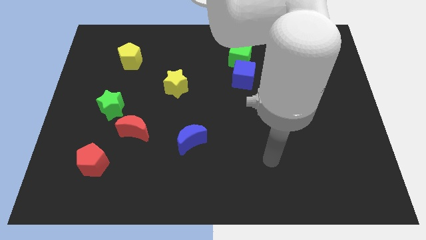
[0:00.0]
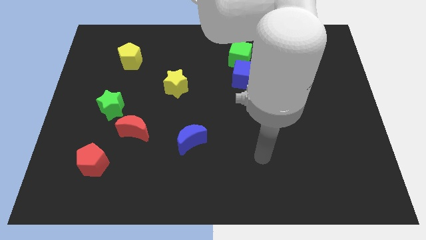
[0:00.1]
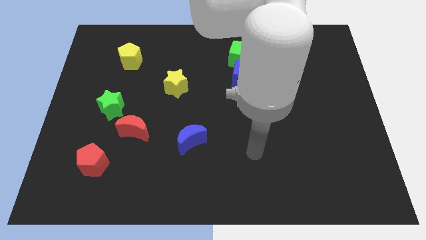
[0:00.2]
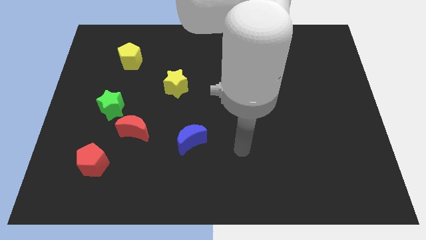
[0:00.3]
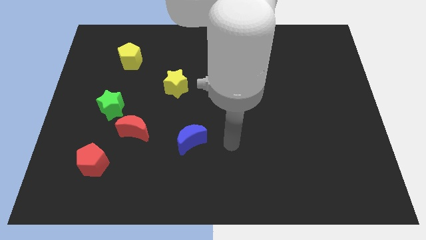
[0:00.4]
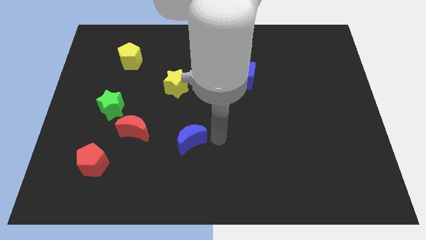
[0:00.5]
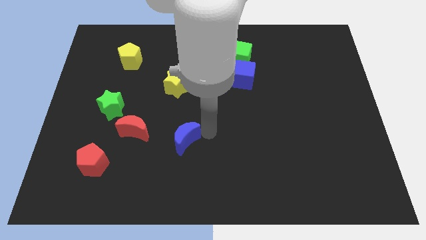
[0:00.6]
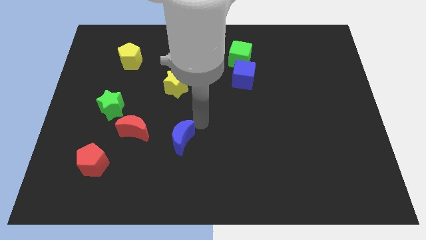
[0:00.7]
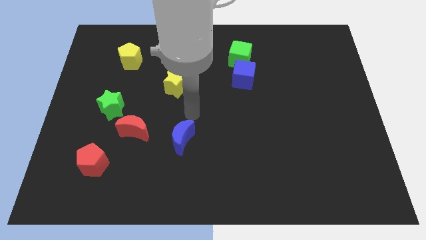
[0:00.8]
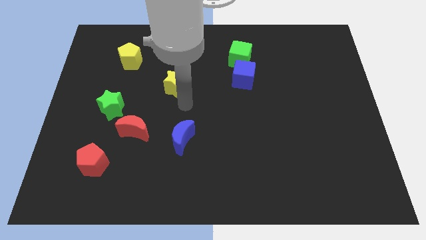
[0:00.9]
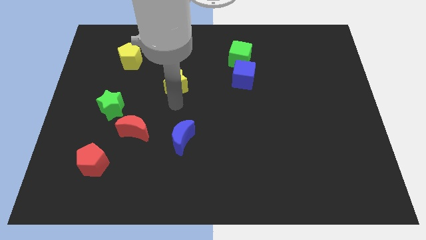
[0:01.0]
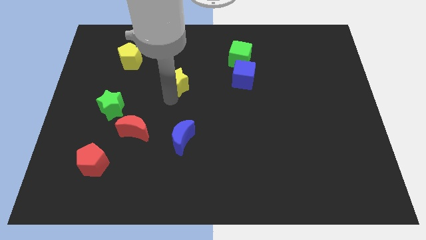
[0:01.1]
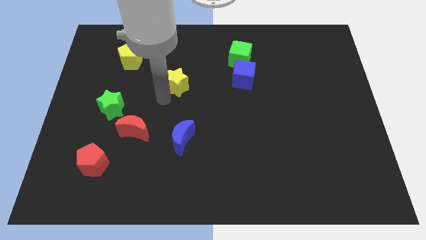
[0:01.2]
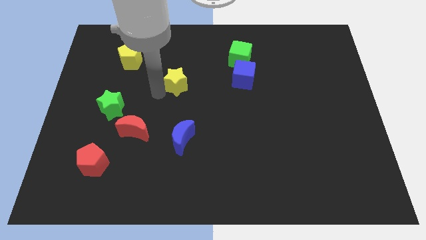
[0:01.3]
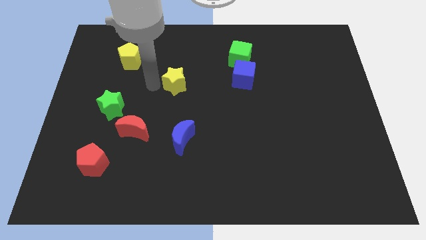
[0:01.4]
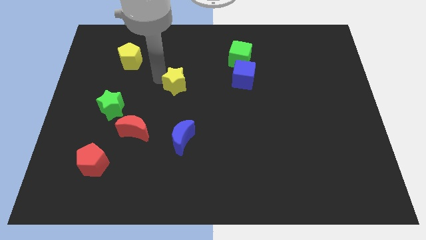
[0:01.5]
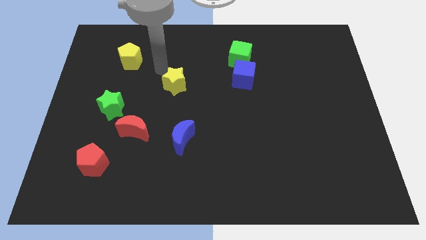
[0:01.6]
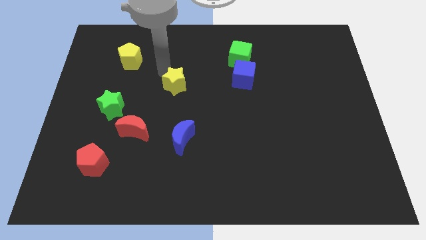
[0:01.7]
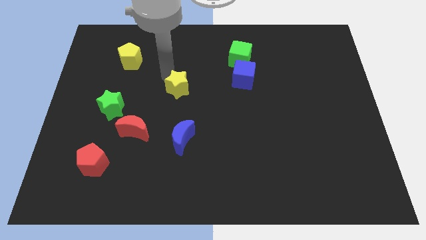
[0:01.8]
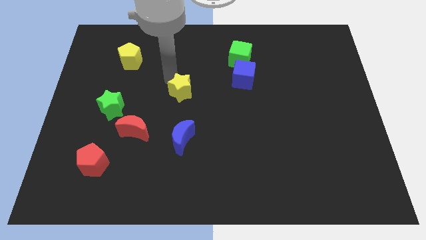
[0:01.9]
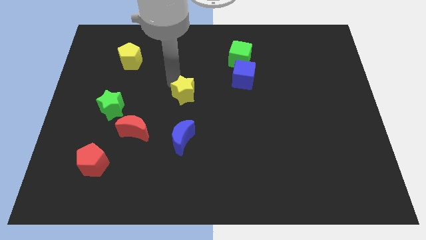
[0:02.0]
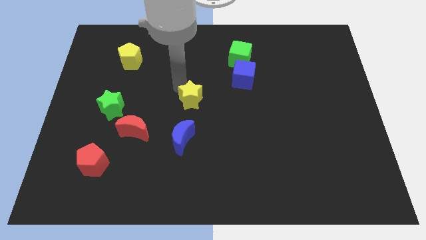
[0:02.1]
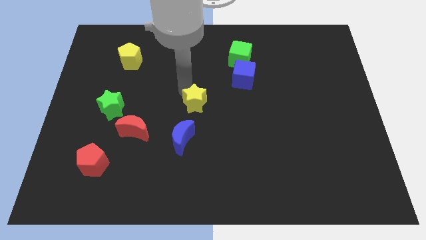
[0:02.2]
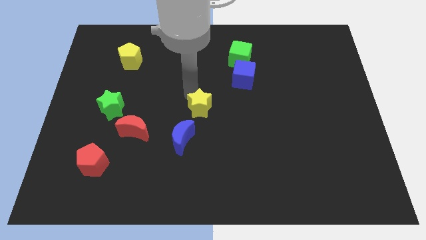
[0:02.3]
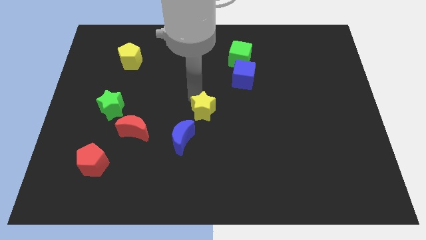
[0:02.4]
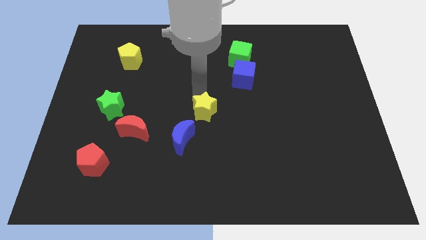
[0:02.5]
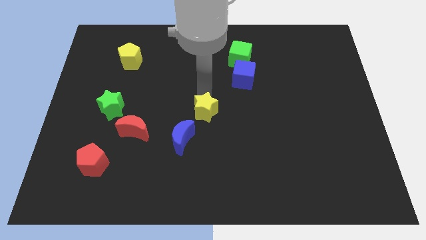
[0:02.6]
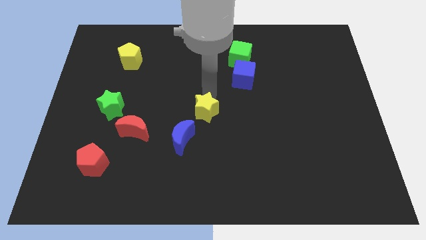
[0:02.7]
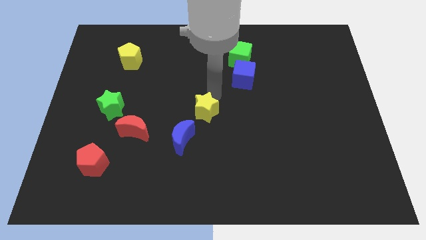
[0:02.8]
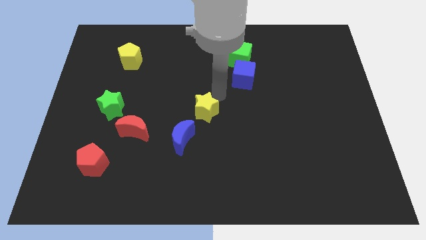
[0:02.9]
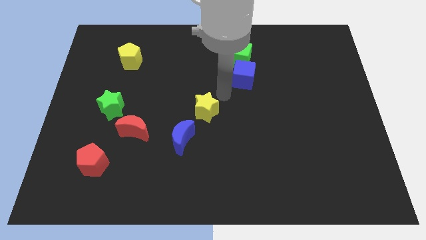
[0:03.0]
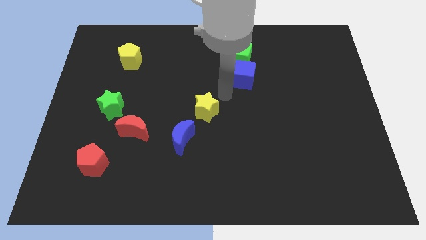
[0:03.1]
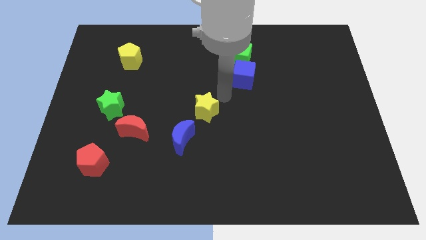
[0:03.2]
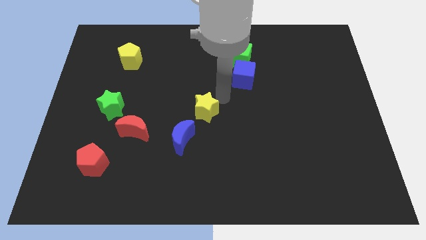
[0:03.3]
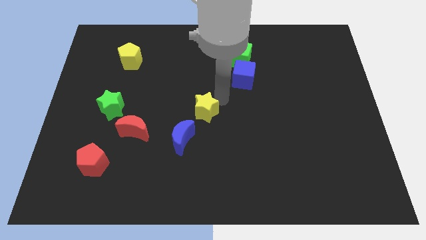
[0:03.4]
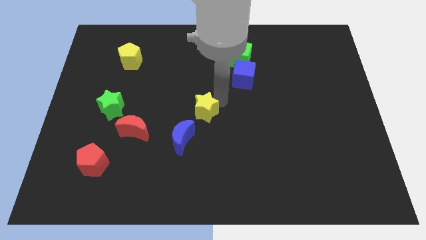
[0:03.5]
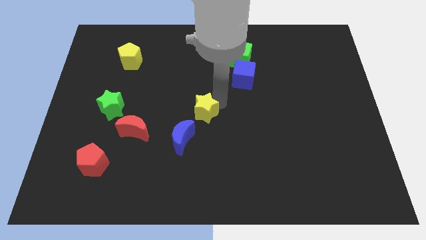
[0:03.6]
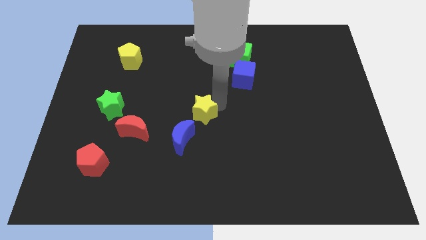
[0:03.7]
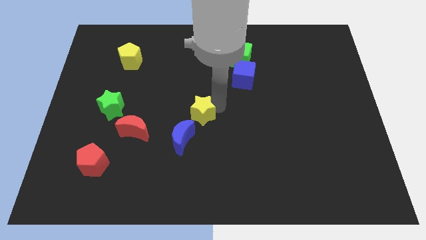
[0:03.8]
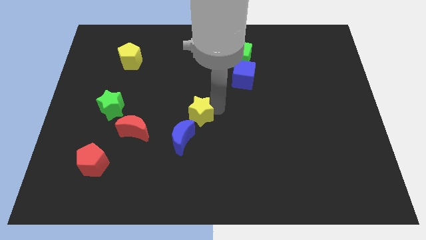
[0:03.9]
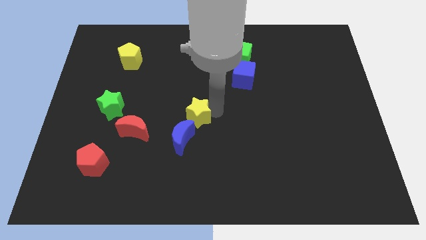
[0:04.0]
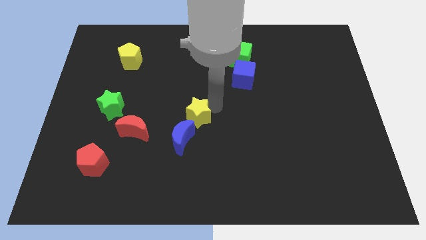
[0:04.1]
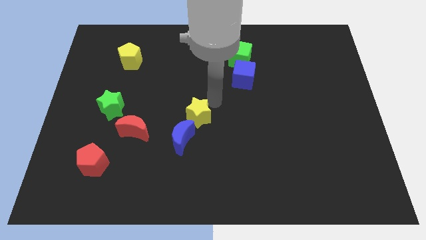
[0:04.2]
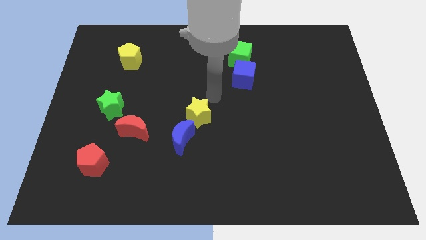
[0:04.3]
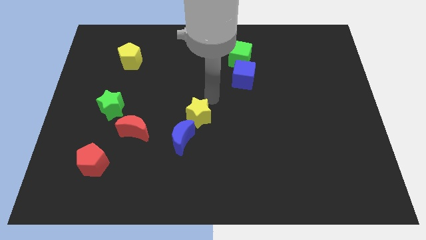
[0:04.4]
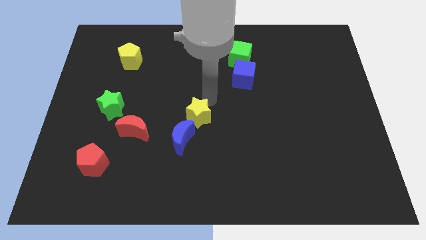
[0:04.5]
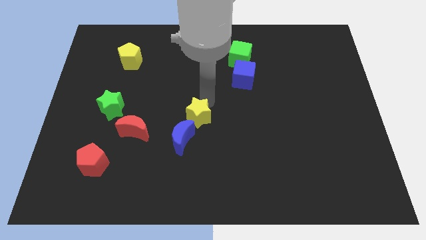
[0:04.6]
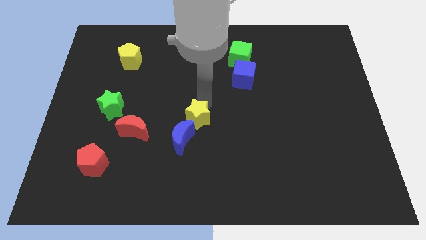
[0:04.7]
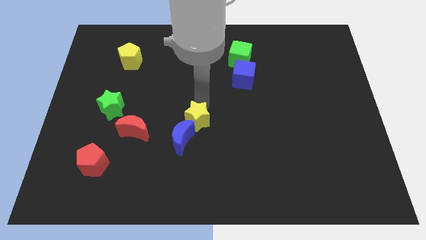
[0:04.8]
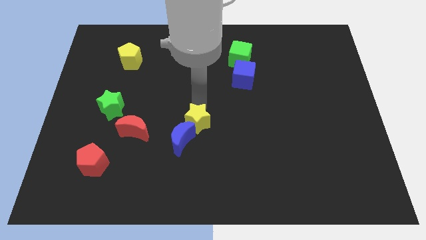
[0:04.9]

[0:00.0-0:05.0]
slide the yellow star to the blue moon

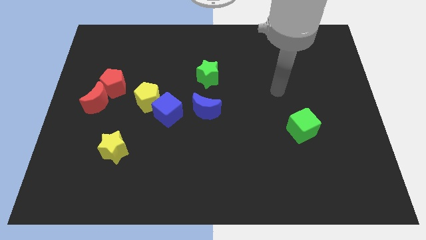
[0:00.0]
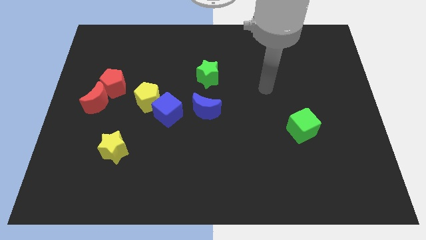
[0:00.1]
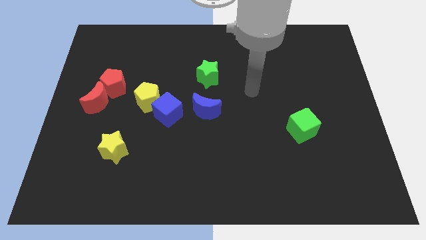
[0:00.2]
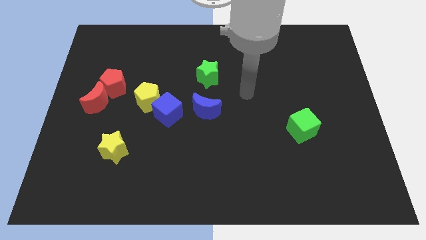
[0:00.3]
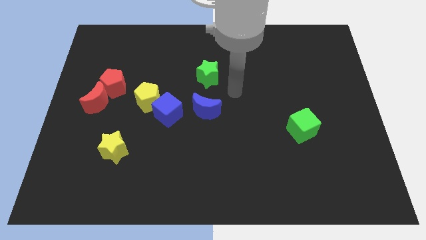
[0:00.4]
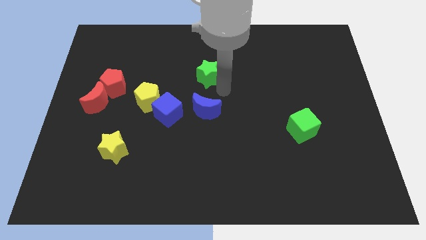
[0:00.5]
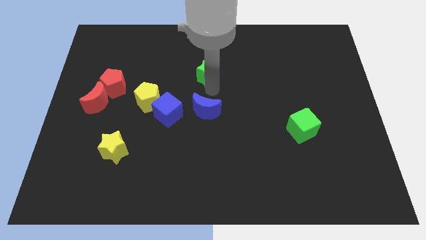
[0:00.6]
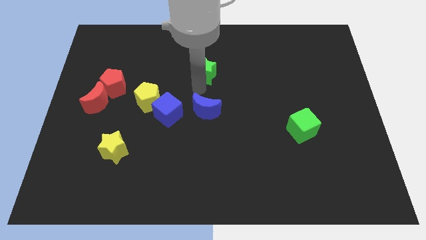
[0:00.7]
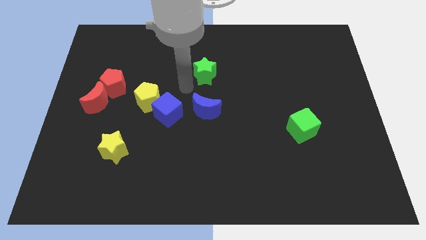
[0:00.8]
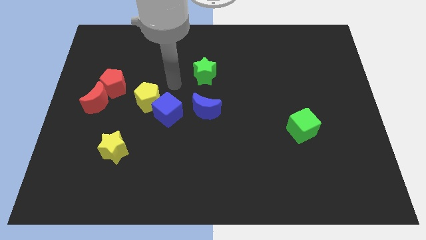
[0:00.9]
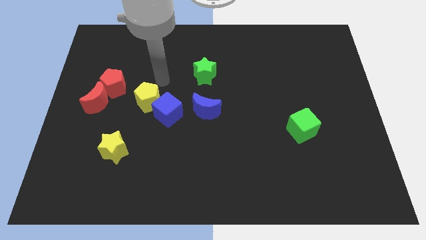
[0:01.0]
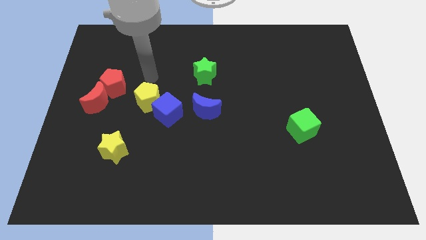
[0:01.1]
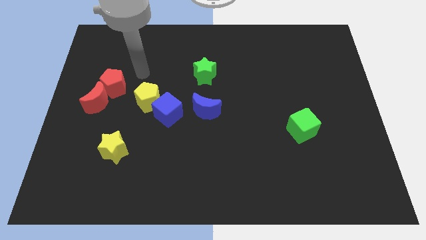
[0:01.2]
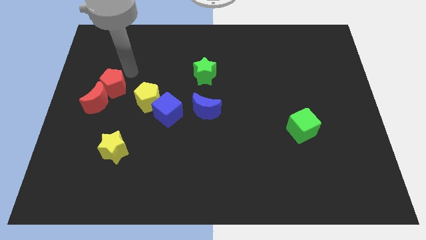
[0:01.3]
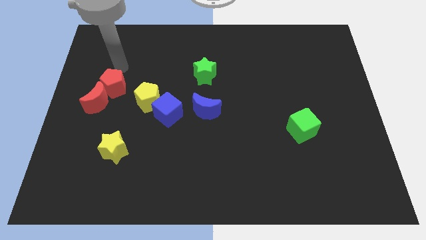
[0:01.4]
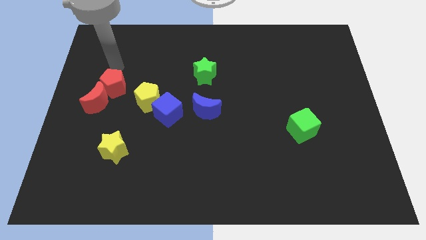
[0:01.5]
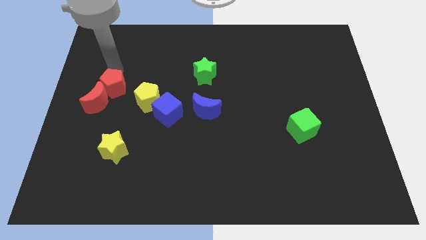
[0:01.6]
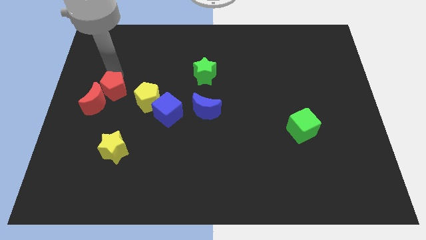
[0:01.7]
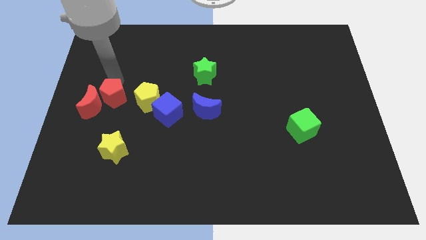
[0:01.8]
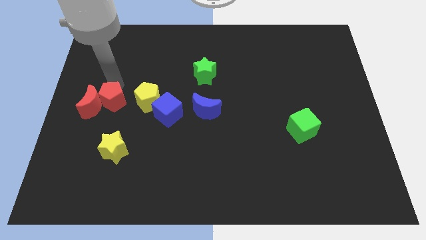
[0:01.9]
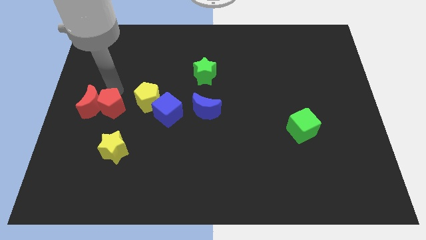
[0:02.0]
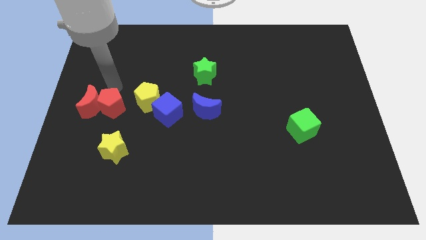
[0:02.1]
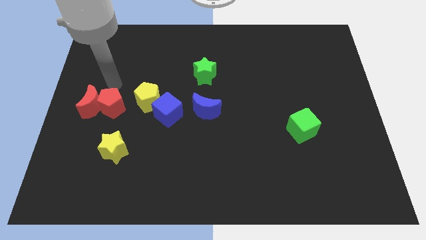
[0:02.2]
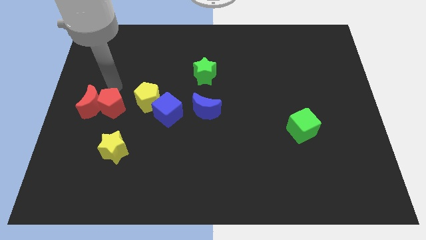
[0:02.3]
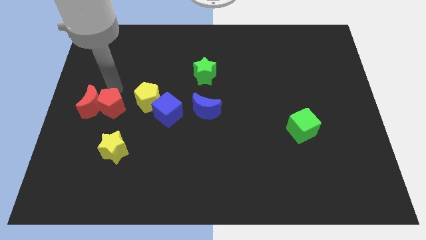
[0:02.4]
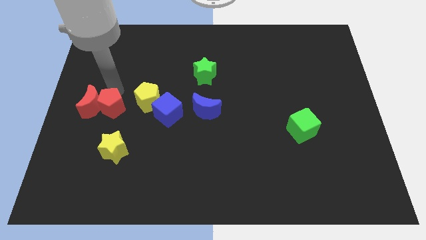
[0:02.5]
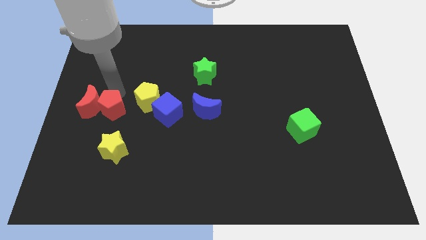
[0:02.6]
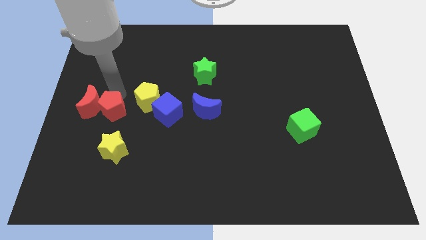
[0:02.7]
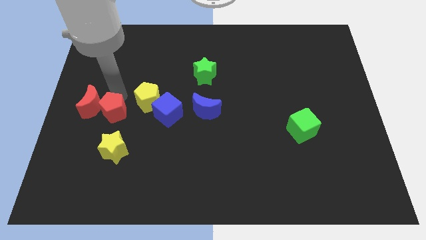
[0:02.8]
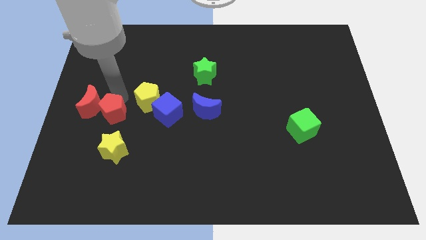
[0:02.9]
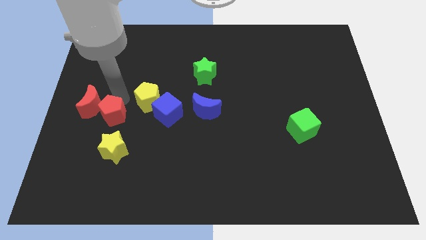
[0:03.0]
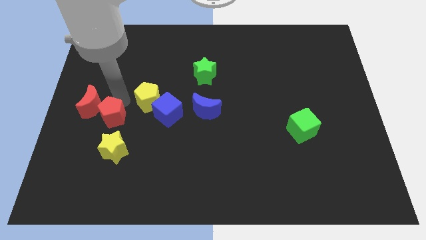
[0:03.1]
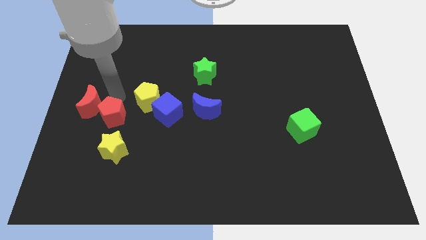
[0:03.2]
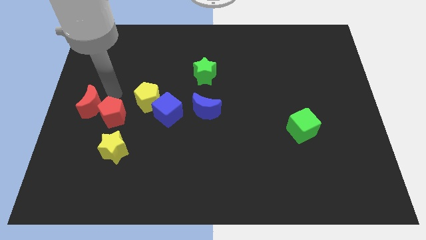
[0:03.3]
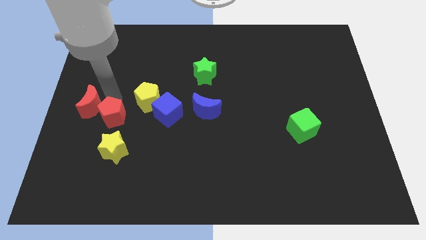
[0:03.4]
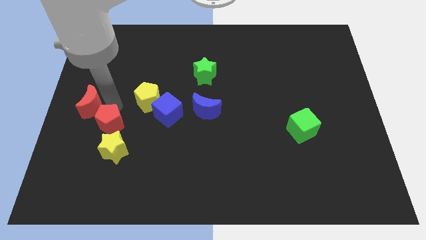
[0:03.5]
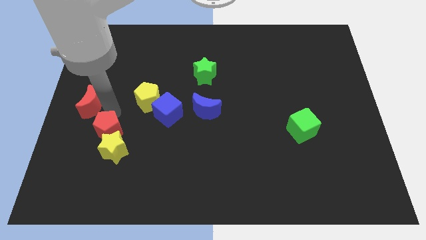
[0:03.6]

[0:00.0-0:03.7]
put the red pentagon next to the yellow star
